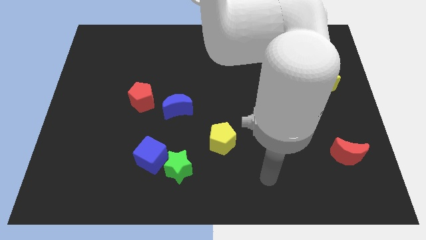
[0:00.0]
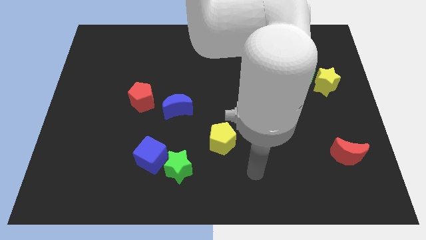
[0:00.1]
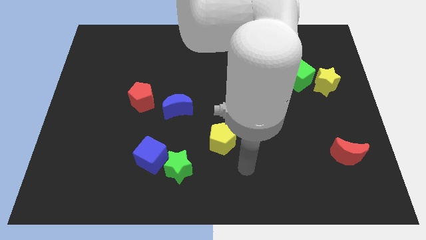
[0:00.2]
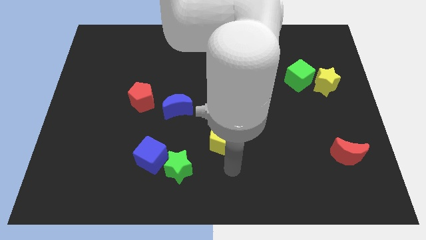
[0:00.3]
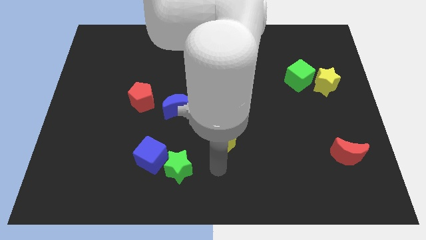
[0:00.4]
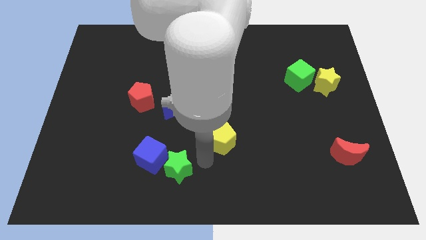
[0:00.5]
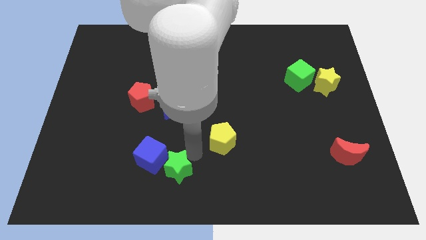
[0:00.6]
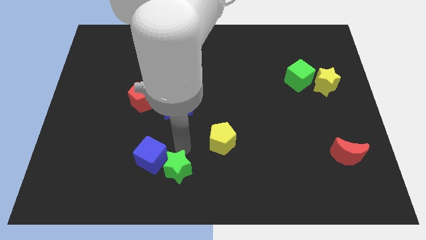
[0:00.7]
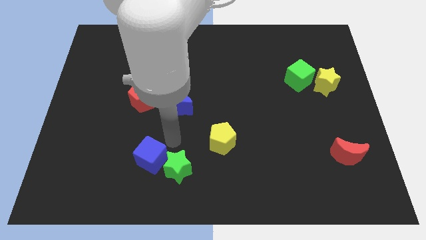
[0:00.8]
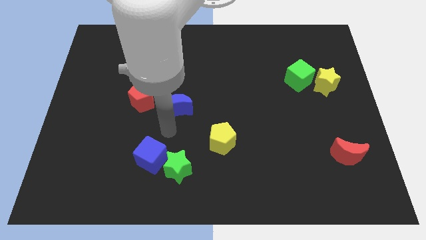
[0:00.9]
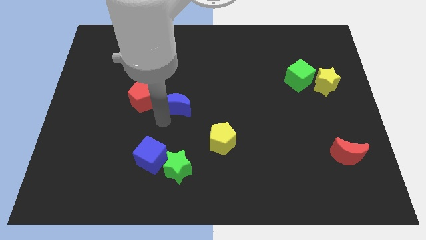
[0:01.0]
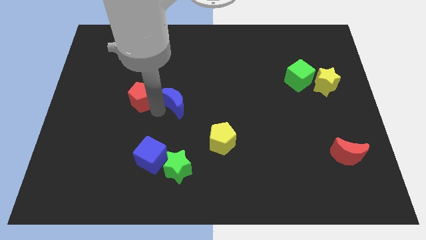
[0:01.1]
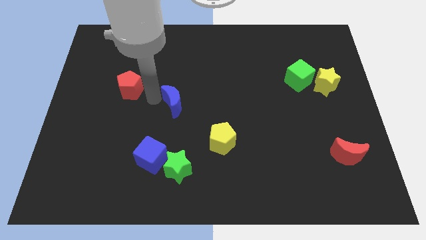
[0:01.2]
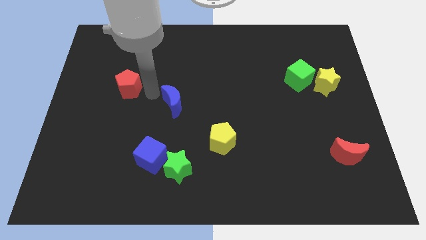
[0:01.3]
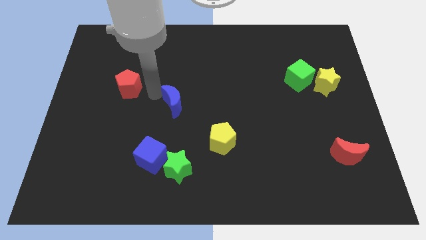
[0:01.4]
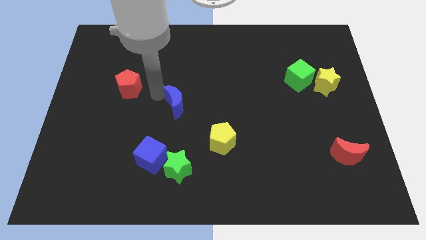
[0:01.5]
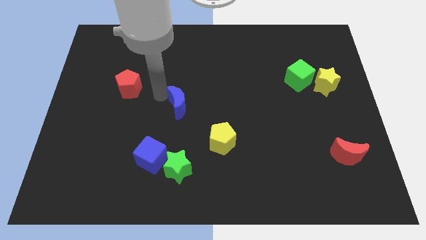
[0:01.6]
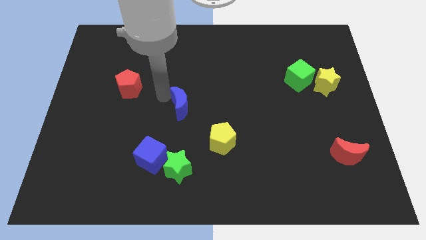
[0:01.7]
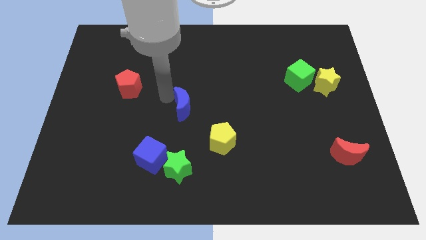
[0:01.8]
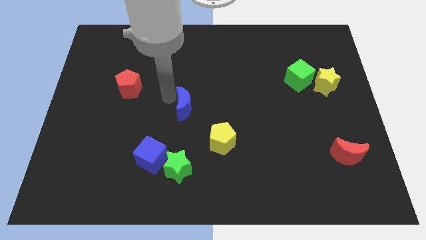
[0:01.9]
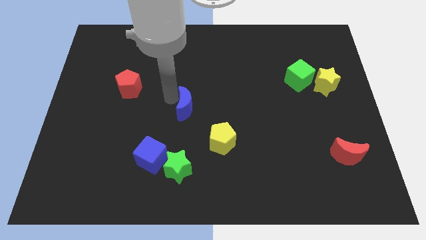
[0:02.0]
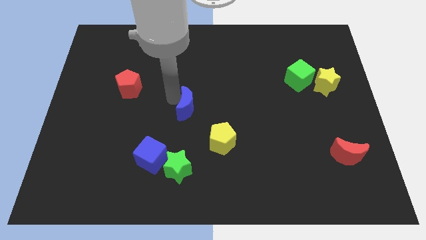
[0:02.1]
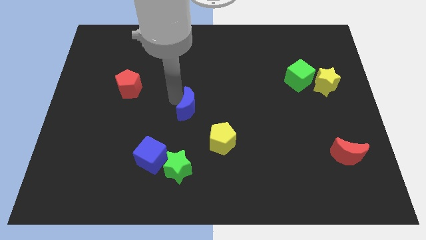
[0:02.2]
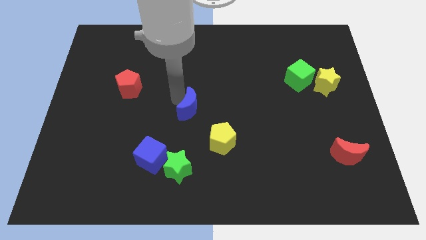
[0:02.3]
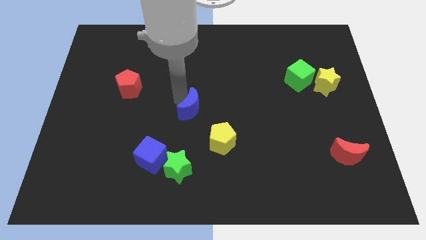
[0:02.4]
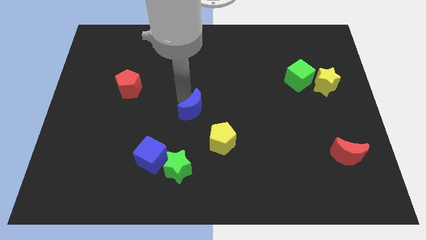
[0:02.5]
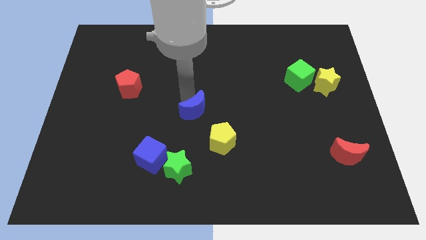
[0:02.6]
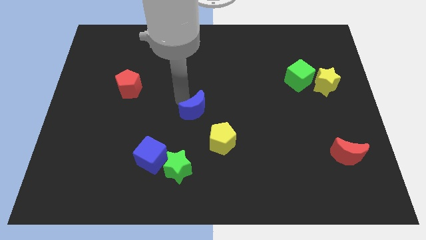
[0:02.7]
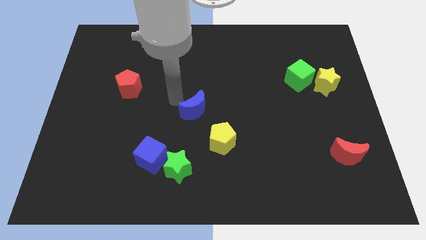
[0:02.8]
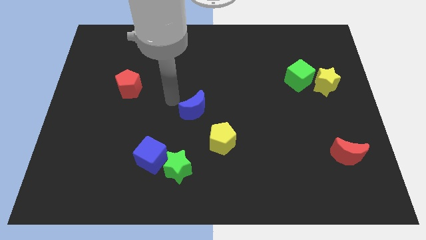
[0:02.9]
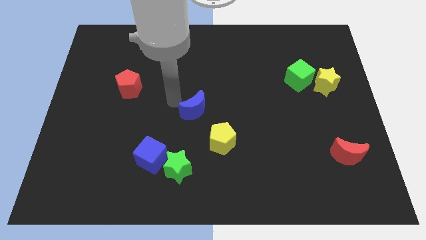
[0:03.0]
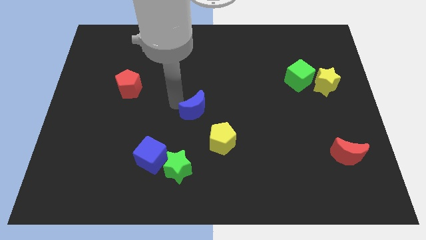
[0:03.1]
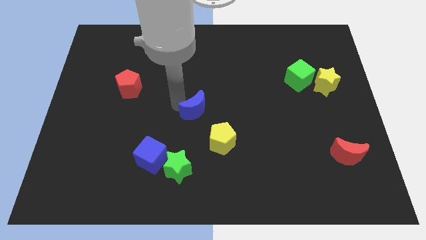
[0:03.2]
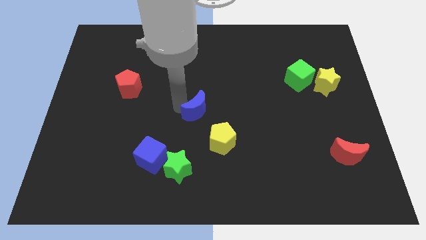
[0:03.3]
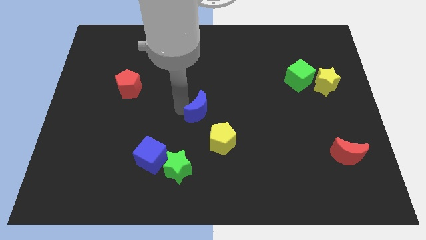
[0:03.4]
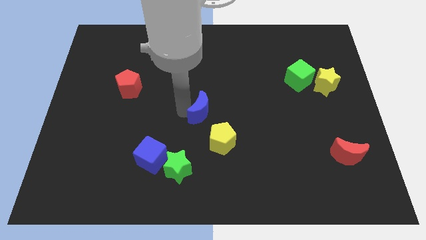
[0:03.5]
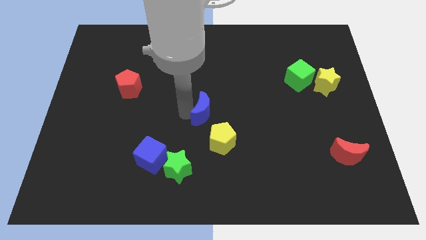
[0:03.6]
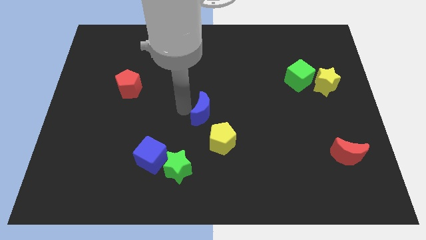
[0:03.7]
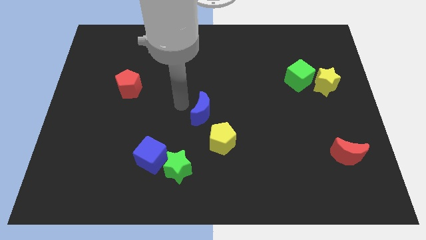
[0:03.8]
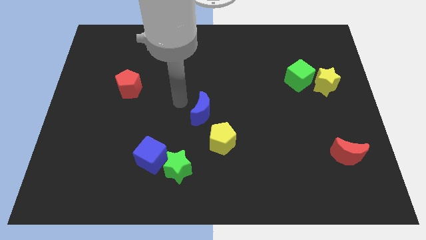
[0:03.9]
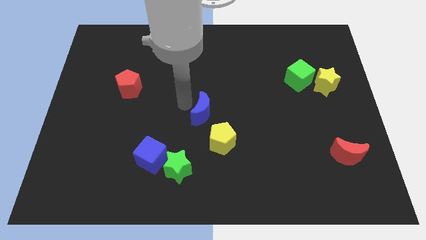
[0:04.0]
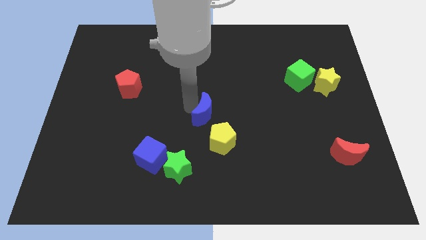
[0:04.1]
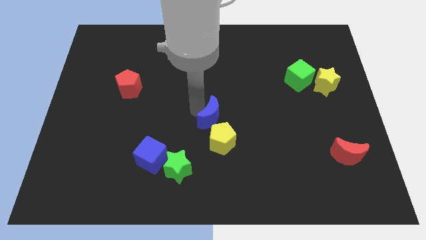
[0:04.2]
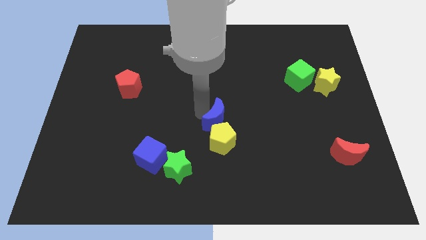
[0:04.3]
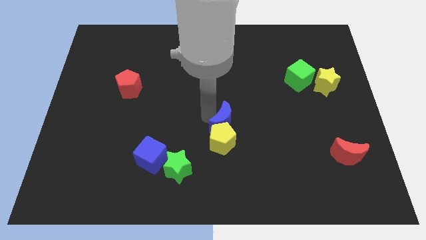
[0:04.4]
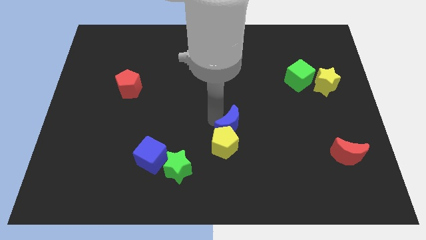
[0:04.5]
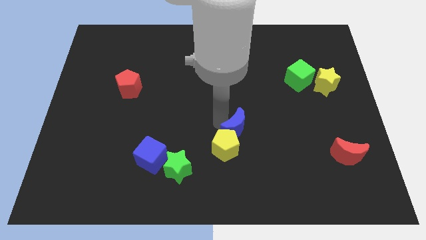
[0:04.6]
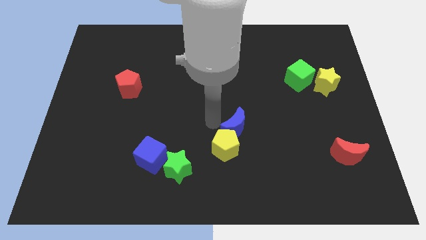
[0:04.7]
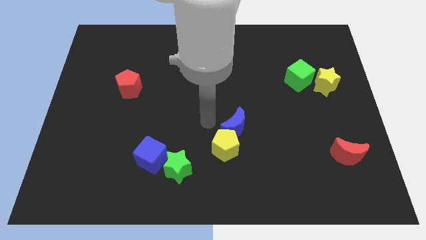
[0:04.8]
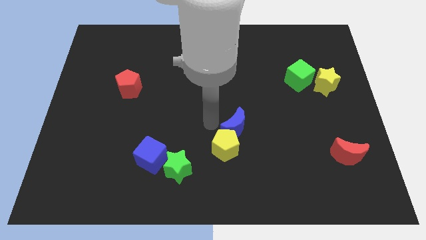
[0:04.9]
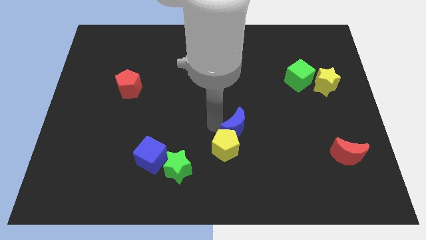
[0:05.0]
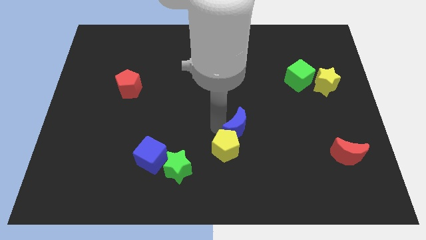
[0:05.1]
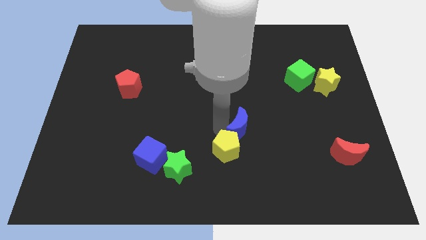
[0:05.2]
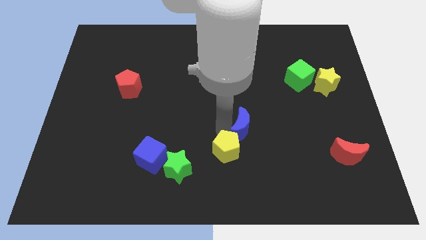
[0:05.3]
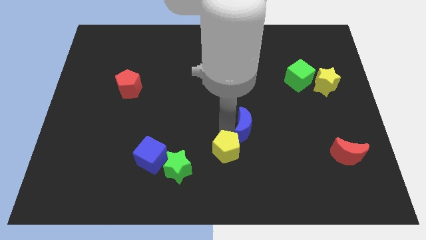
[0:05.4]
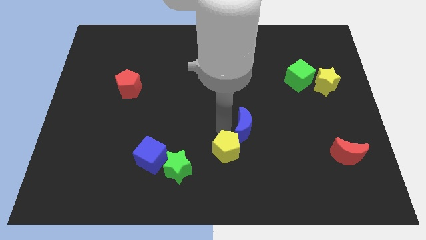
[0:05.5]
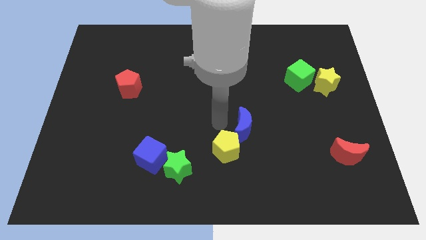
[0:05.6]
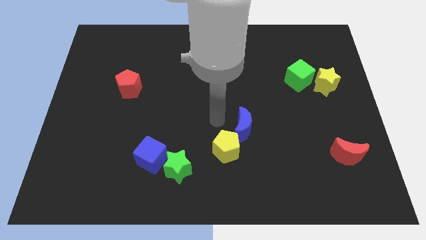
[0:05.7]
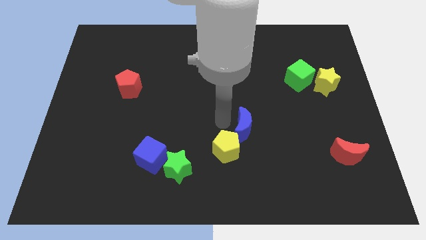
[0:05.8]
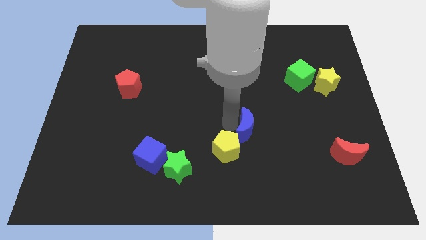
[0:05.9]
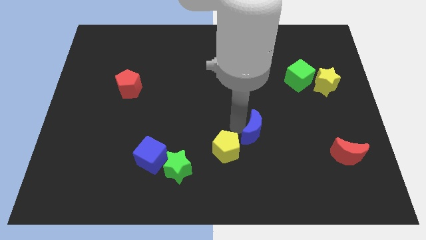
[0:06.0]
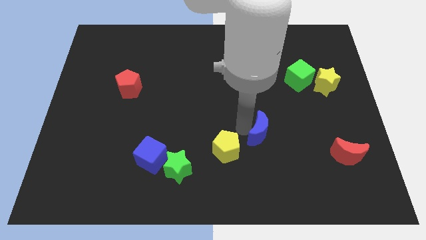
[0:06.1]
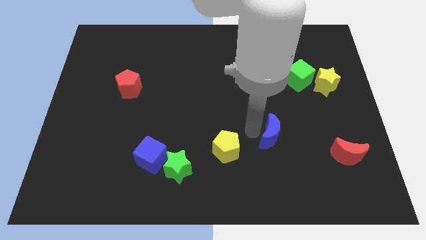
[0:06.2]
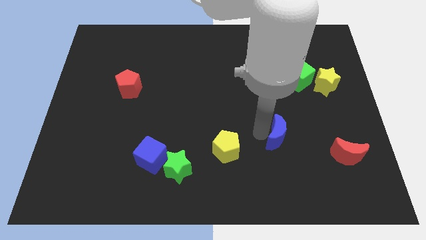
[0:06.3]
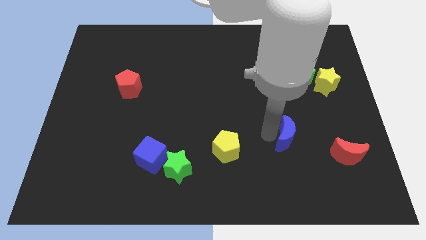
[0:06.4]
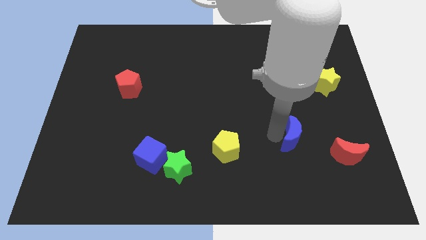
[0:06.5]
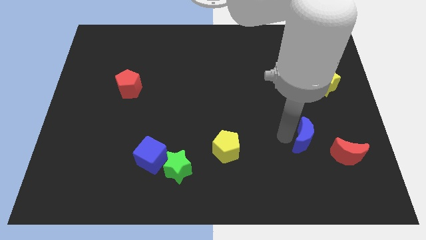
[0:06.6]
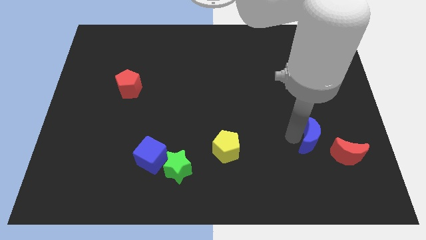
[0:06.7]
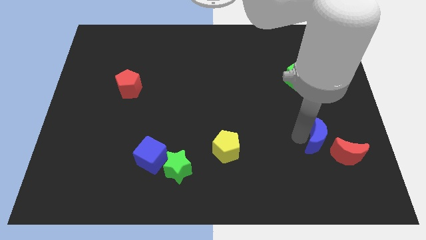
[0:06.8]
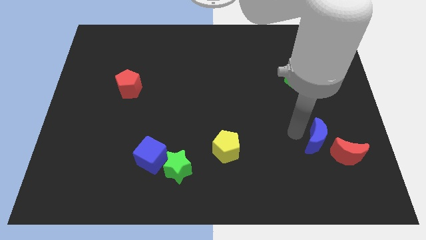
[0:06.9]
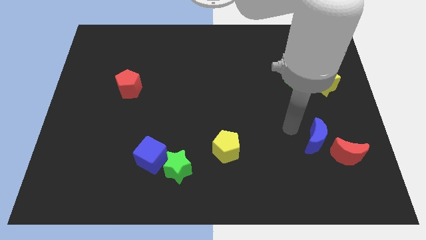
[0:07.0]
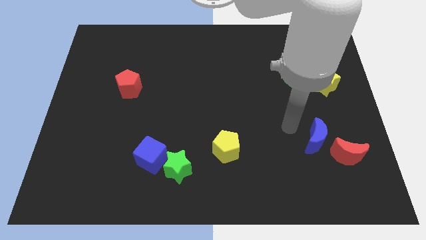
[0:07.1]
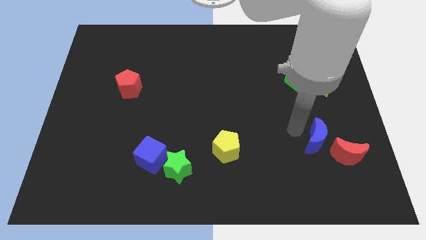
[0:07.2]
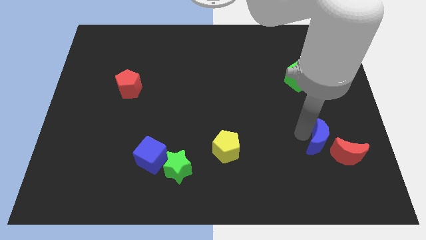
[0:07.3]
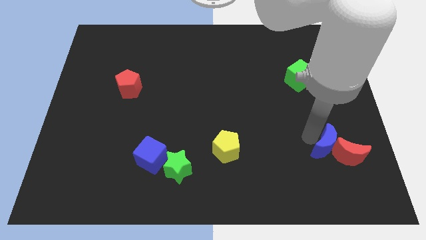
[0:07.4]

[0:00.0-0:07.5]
put the blue moon close to the red moon

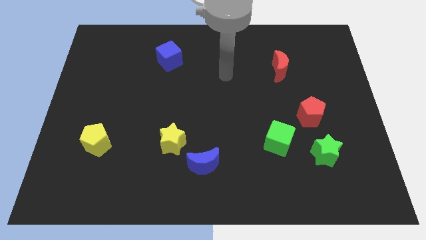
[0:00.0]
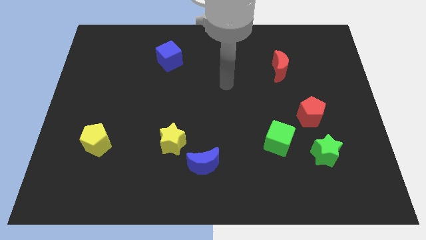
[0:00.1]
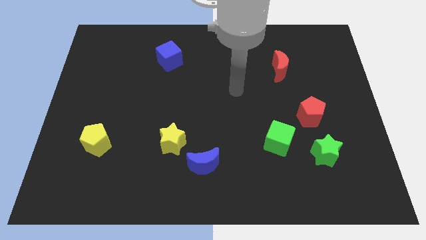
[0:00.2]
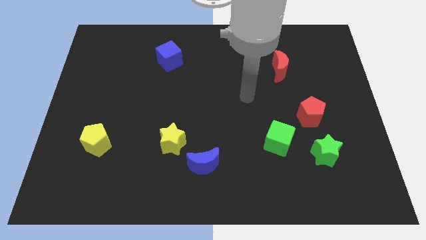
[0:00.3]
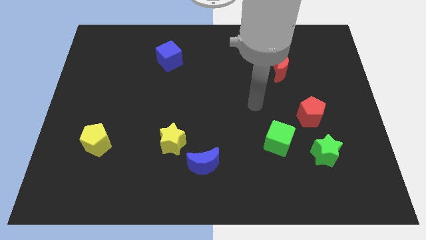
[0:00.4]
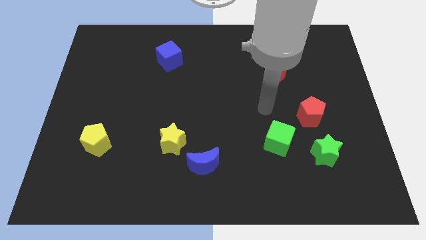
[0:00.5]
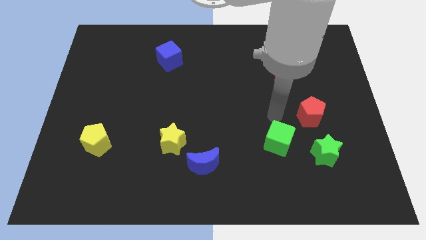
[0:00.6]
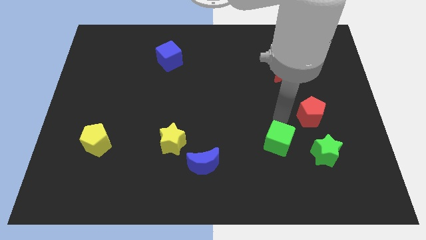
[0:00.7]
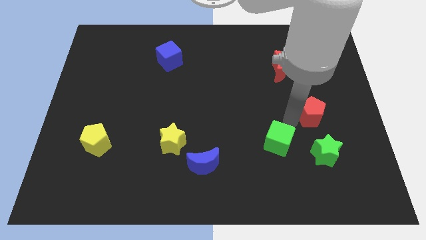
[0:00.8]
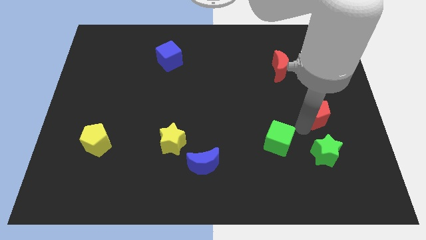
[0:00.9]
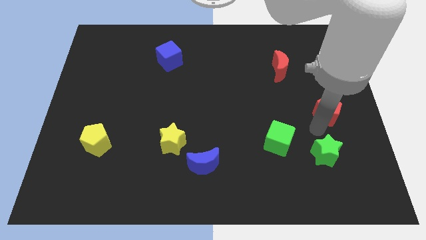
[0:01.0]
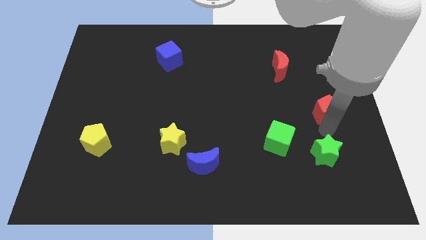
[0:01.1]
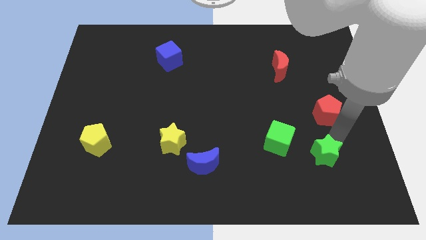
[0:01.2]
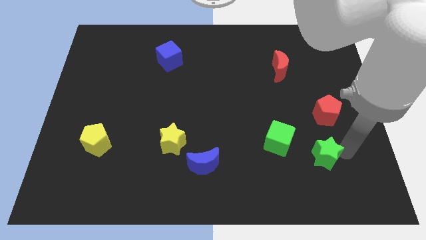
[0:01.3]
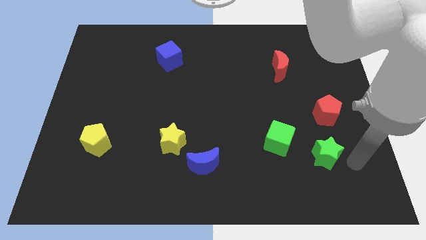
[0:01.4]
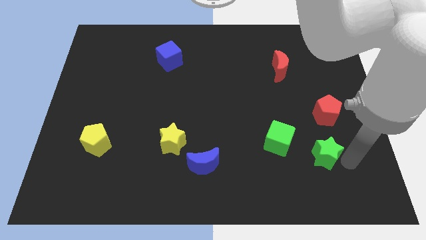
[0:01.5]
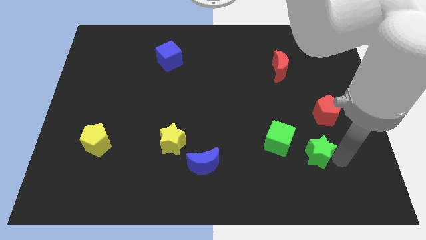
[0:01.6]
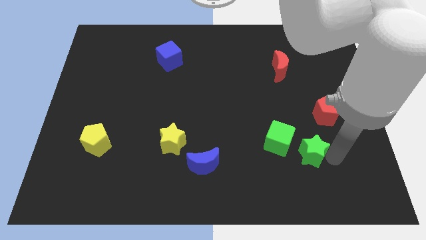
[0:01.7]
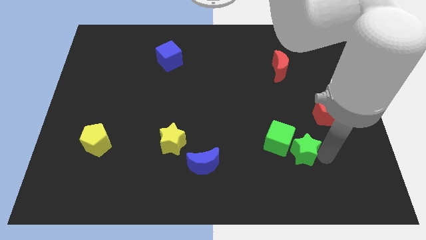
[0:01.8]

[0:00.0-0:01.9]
push the green star towards the green cube
